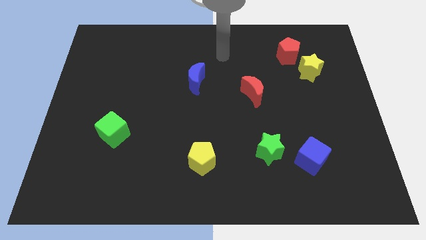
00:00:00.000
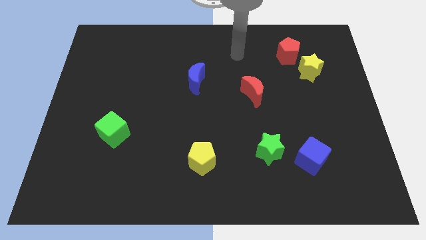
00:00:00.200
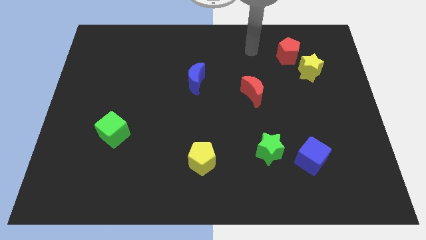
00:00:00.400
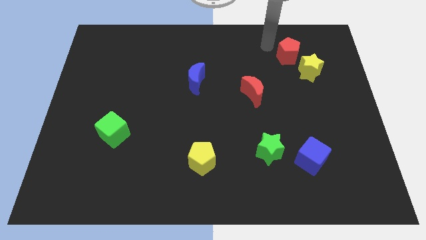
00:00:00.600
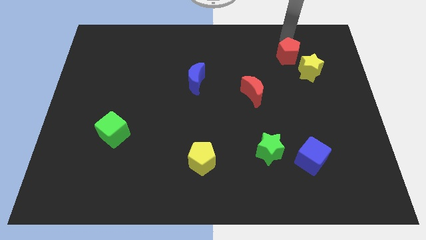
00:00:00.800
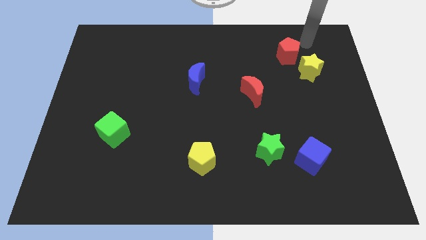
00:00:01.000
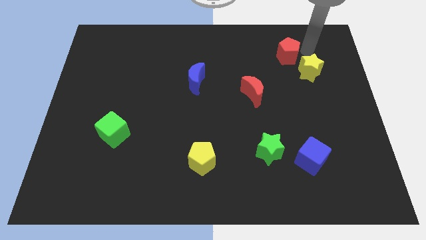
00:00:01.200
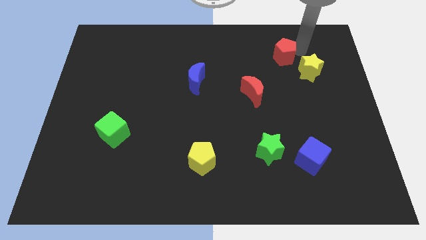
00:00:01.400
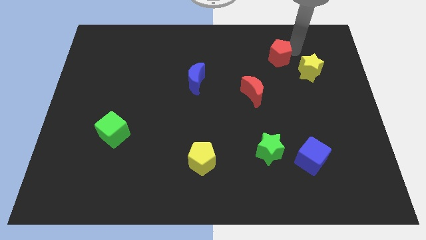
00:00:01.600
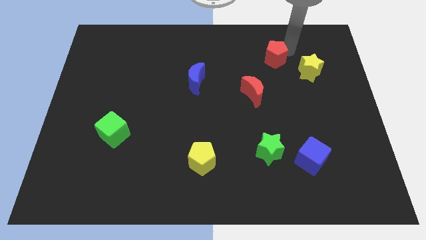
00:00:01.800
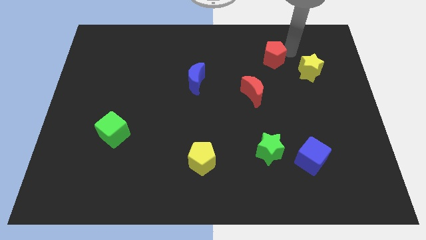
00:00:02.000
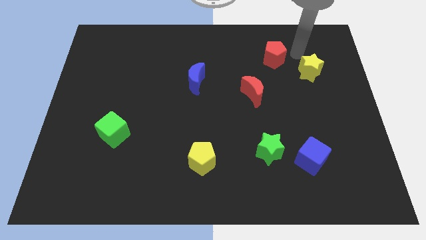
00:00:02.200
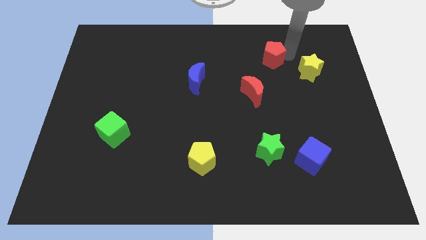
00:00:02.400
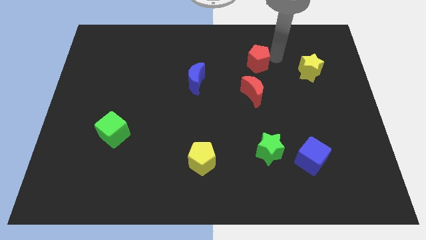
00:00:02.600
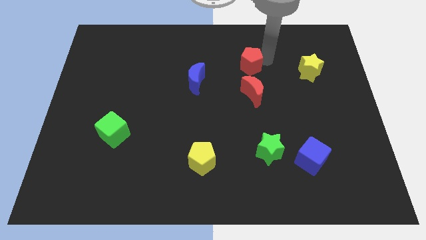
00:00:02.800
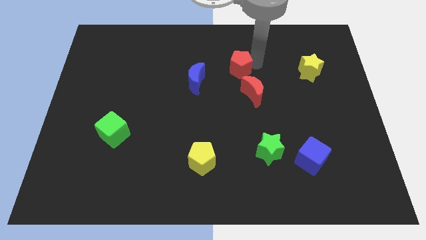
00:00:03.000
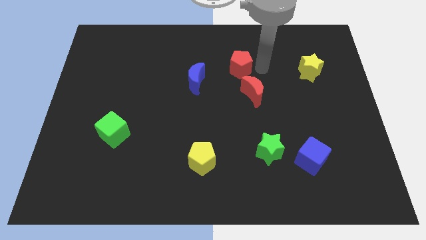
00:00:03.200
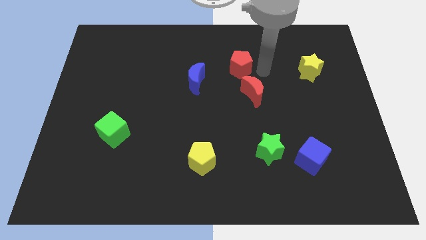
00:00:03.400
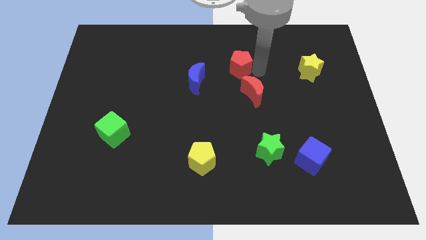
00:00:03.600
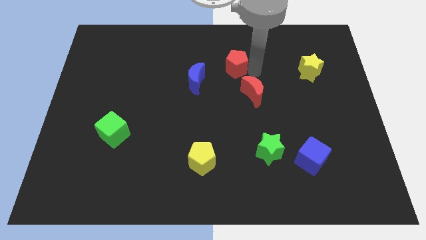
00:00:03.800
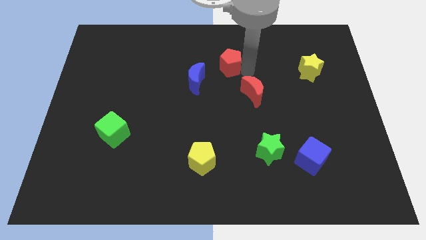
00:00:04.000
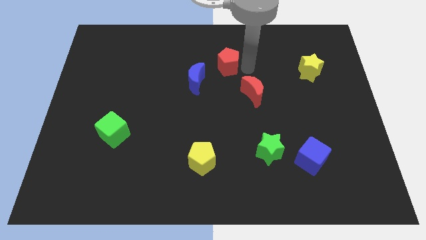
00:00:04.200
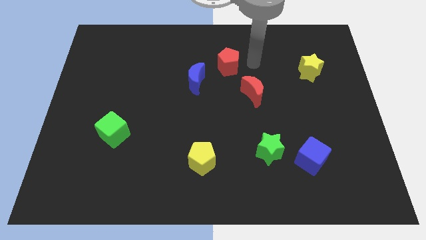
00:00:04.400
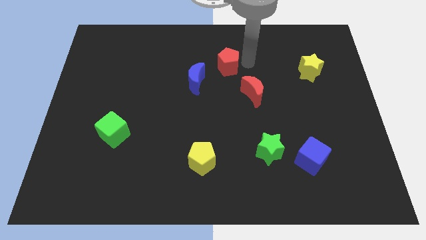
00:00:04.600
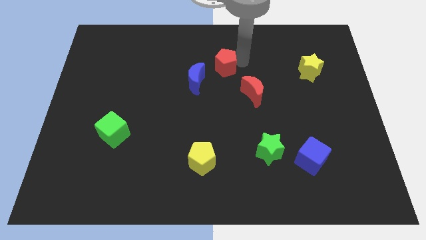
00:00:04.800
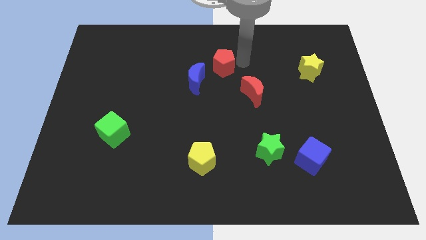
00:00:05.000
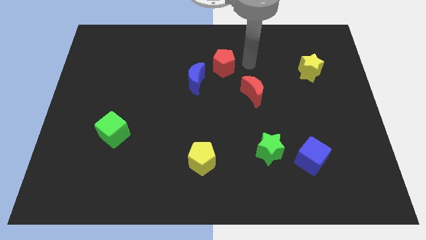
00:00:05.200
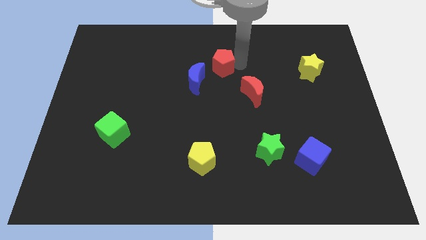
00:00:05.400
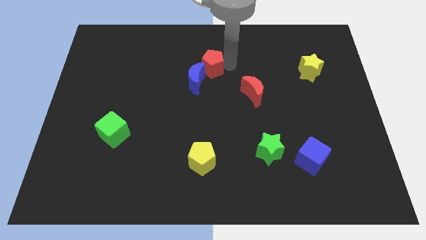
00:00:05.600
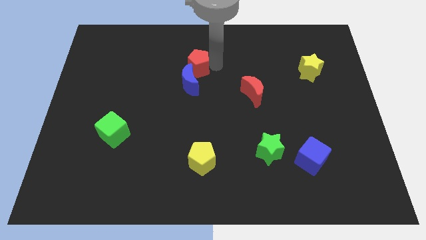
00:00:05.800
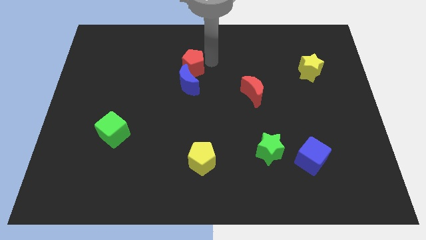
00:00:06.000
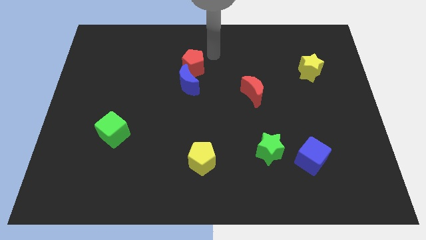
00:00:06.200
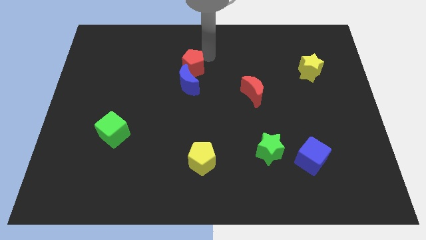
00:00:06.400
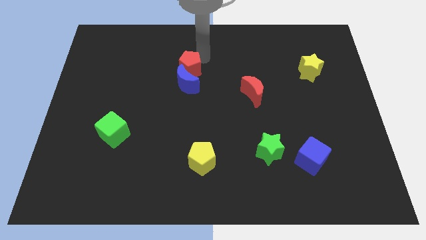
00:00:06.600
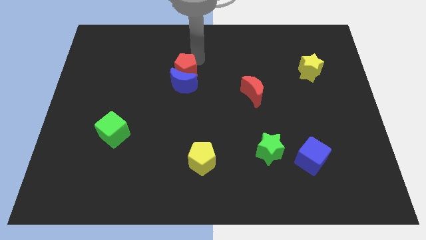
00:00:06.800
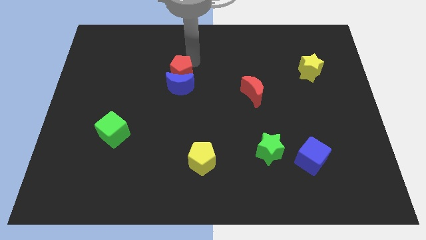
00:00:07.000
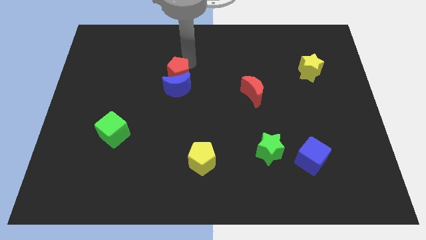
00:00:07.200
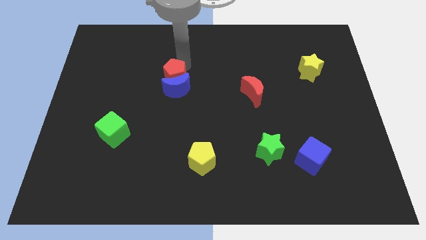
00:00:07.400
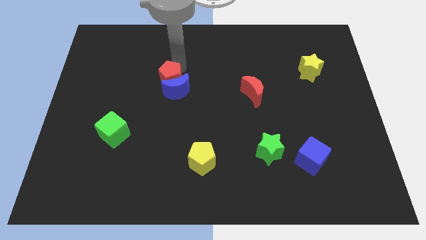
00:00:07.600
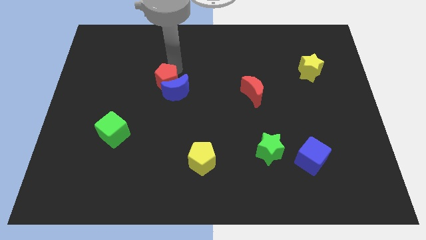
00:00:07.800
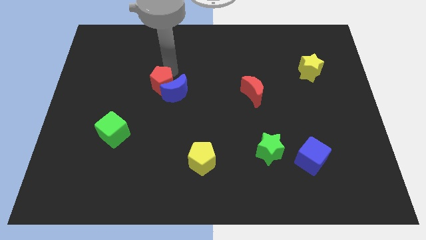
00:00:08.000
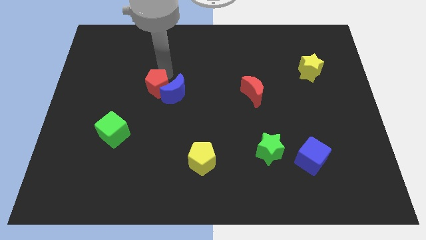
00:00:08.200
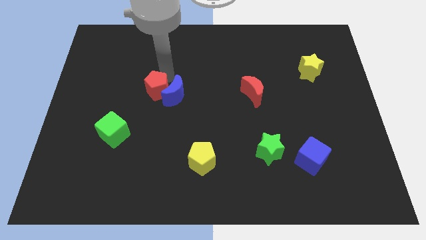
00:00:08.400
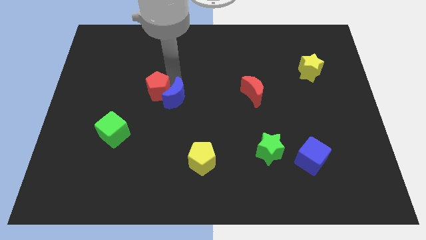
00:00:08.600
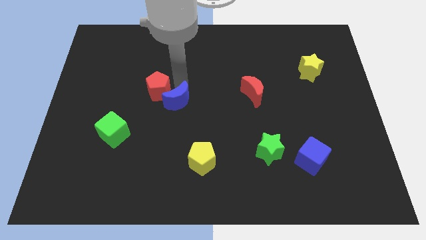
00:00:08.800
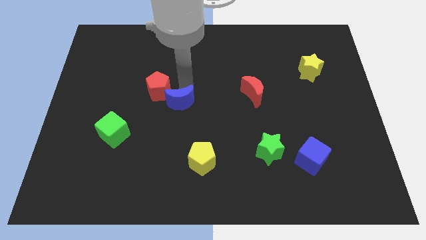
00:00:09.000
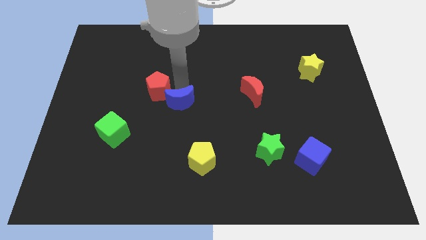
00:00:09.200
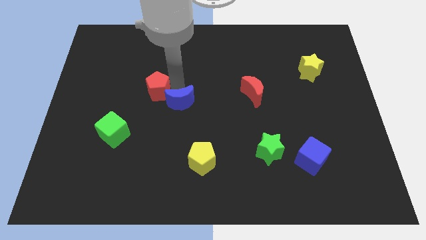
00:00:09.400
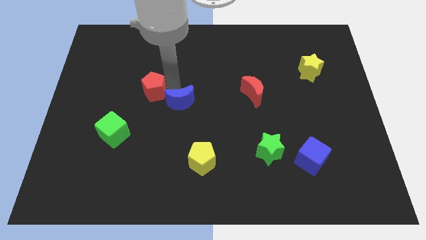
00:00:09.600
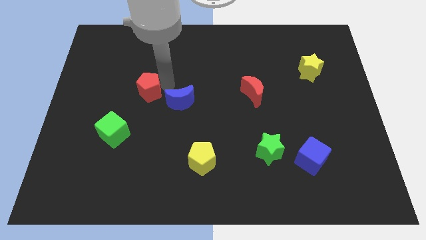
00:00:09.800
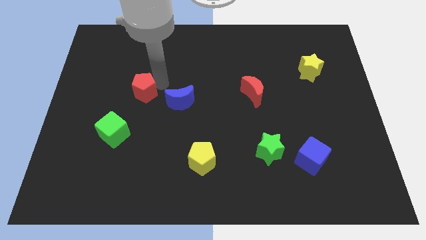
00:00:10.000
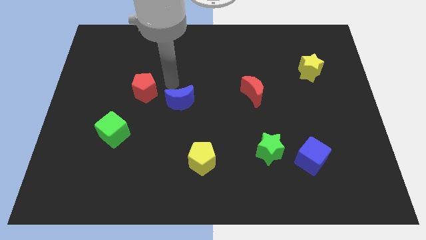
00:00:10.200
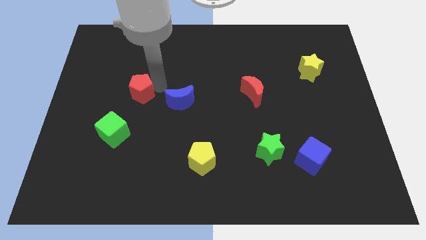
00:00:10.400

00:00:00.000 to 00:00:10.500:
put the red pentagon to the top side of the green cube

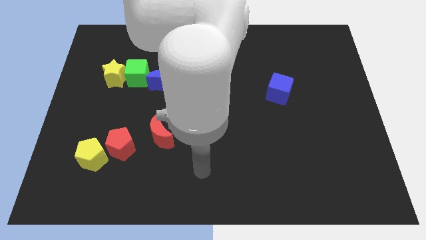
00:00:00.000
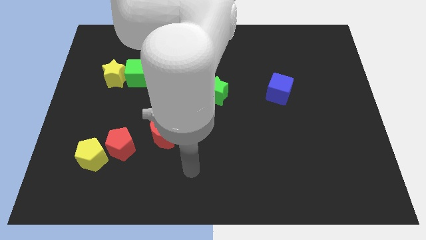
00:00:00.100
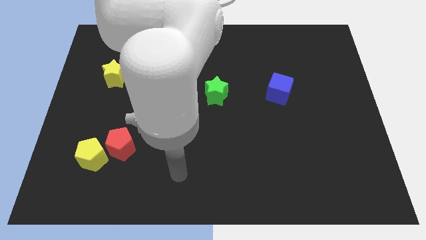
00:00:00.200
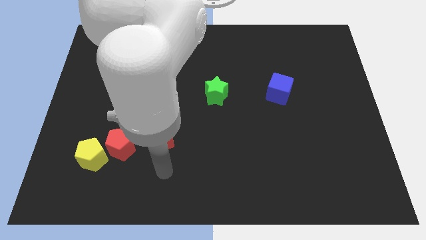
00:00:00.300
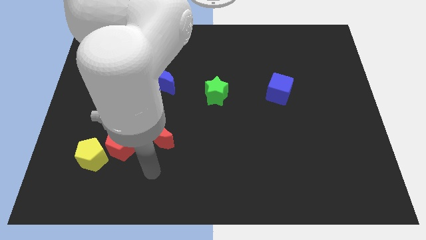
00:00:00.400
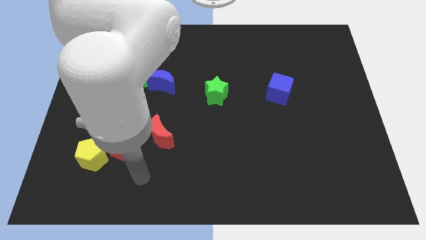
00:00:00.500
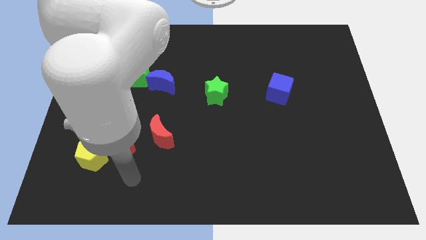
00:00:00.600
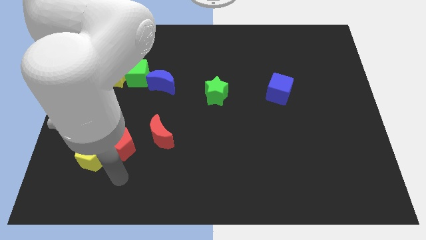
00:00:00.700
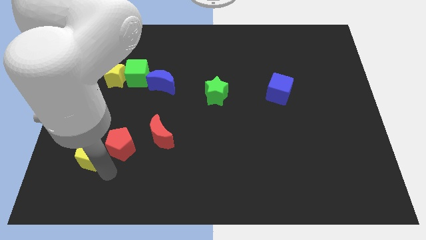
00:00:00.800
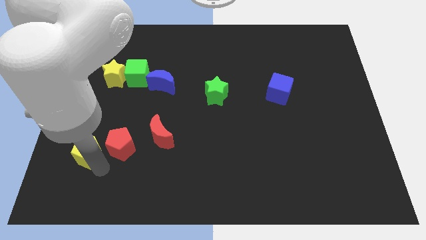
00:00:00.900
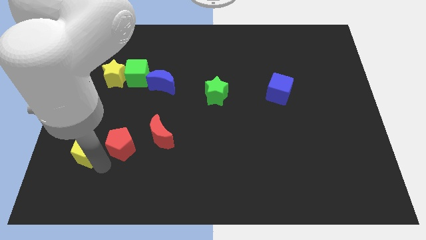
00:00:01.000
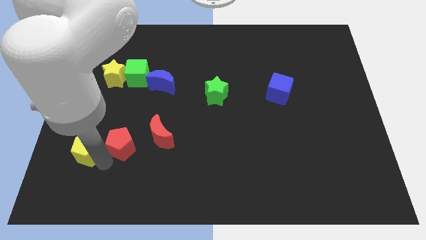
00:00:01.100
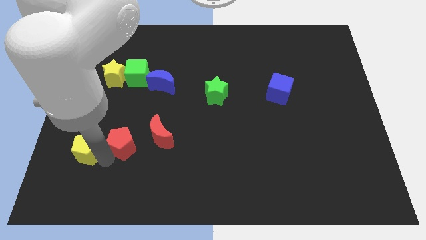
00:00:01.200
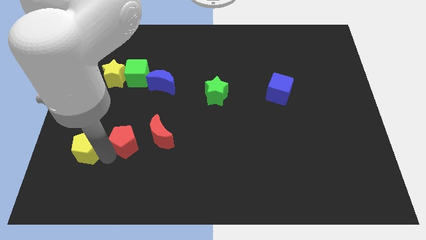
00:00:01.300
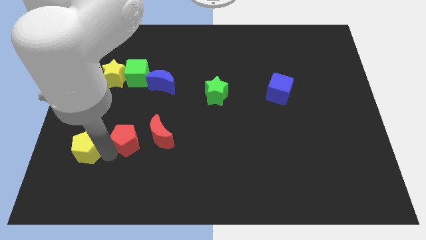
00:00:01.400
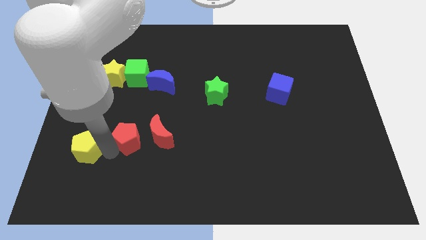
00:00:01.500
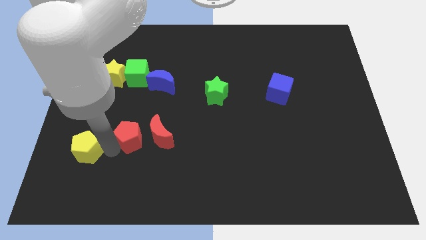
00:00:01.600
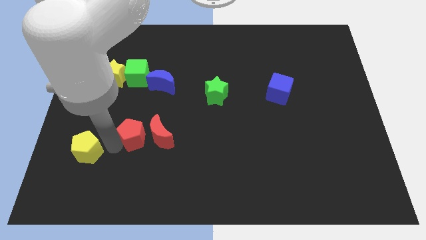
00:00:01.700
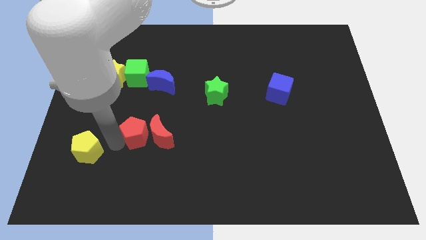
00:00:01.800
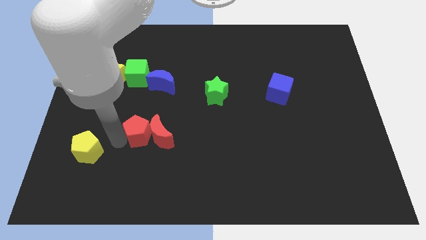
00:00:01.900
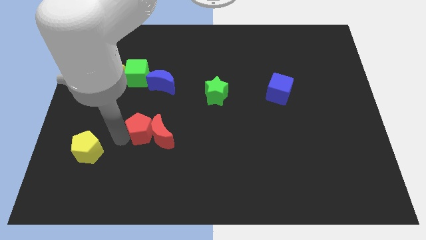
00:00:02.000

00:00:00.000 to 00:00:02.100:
push the red pentagon to the bottom of the blue moon
